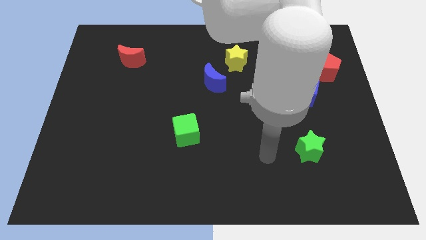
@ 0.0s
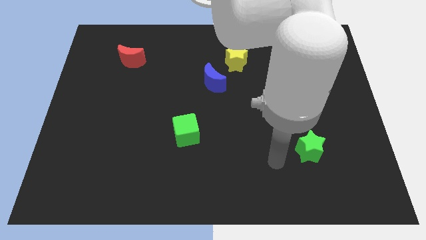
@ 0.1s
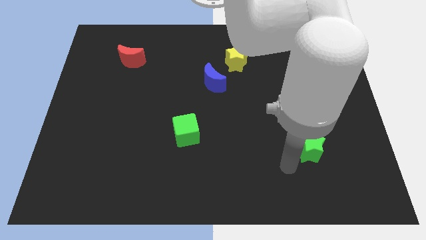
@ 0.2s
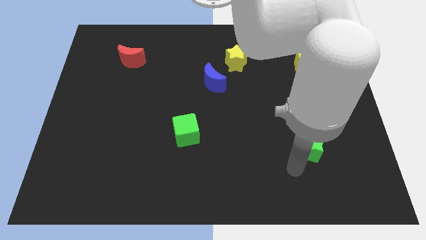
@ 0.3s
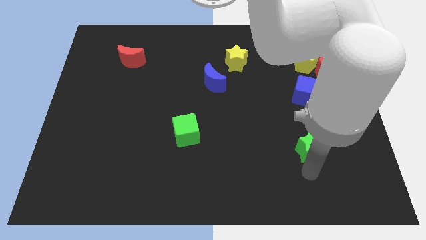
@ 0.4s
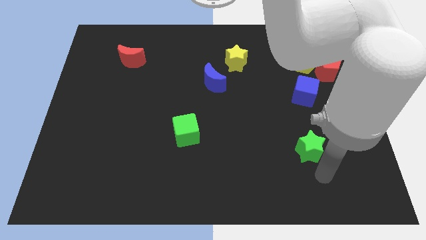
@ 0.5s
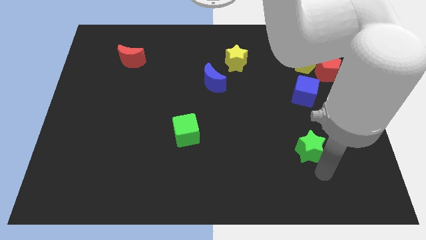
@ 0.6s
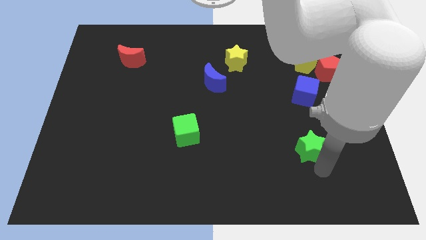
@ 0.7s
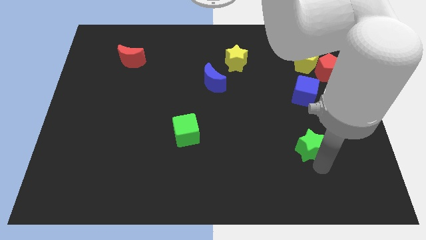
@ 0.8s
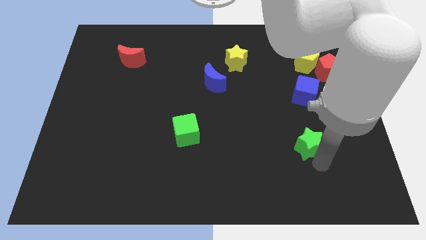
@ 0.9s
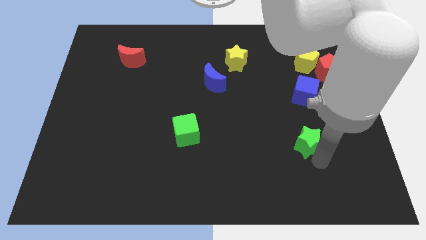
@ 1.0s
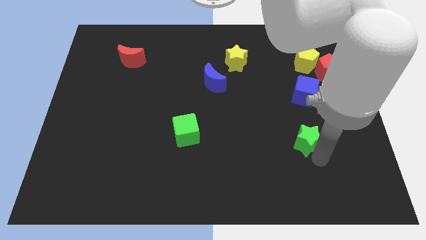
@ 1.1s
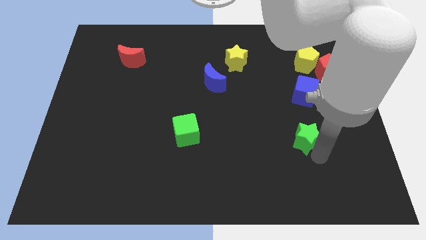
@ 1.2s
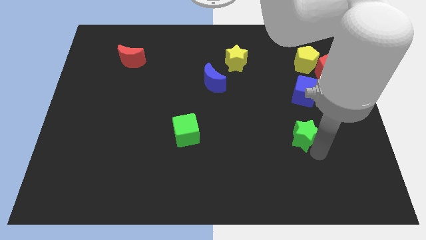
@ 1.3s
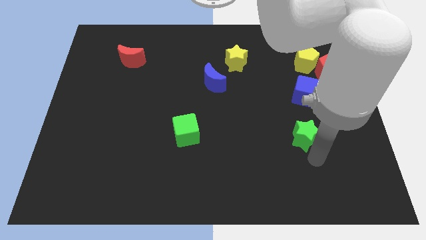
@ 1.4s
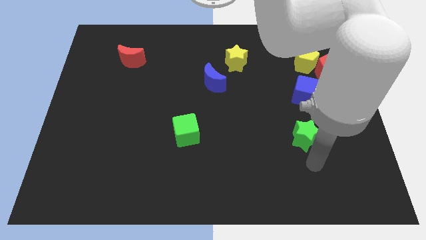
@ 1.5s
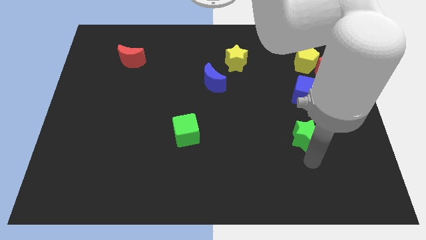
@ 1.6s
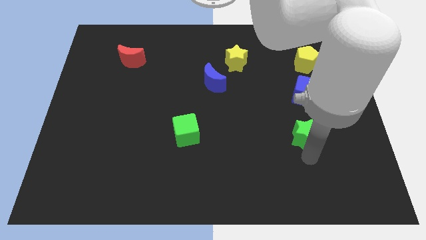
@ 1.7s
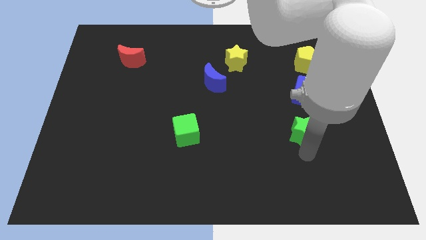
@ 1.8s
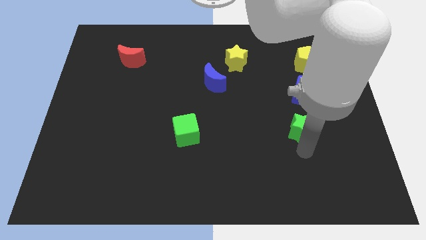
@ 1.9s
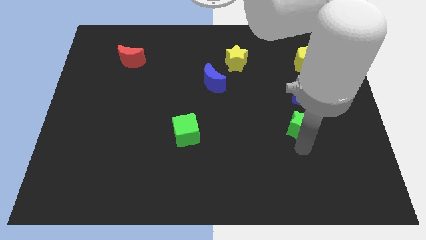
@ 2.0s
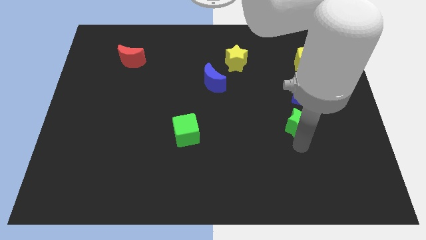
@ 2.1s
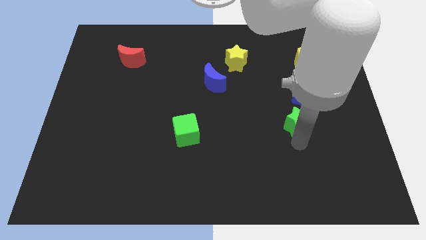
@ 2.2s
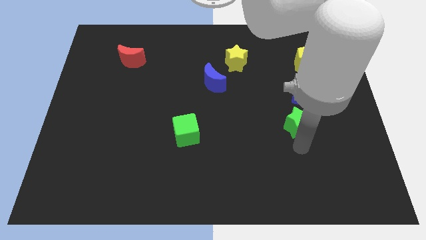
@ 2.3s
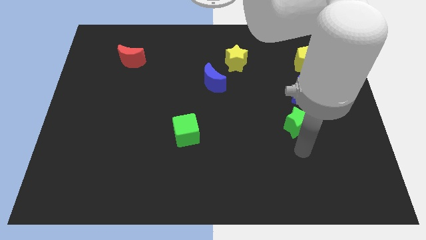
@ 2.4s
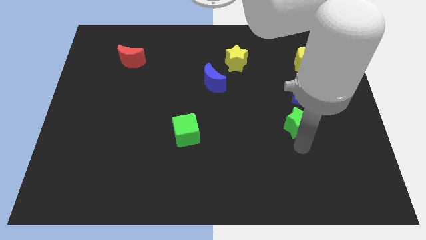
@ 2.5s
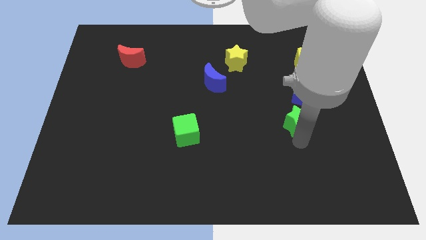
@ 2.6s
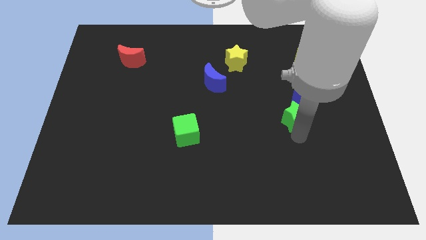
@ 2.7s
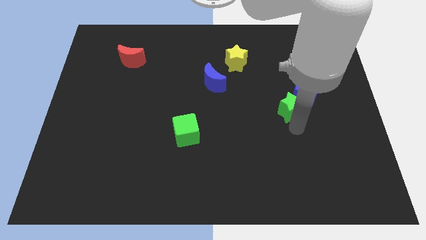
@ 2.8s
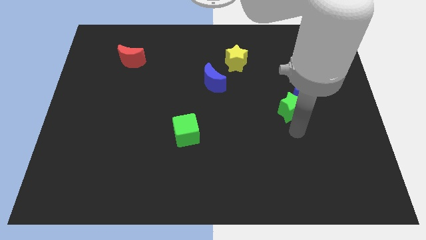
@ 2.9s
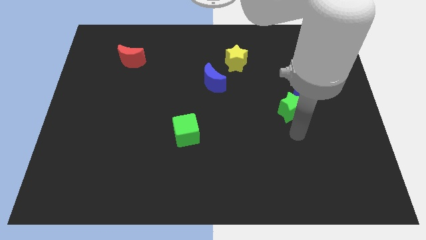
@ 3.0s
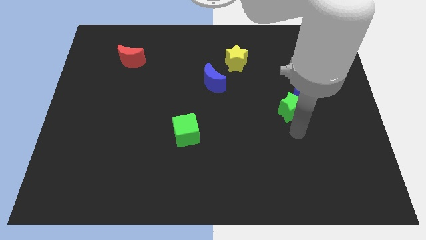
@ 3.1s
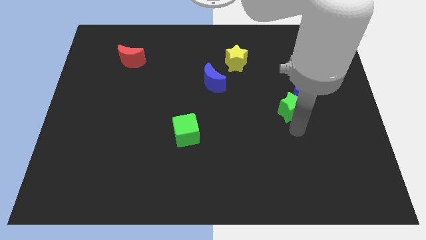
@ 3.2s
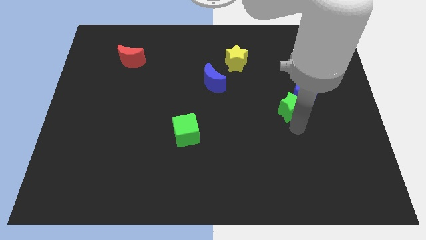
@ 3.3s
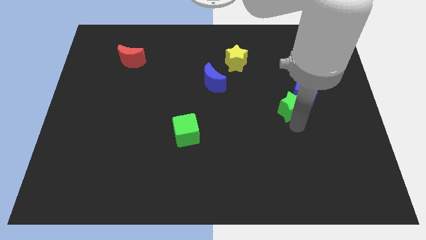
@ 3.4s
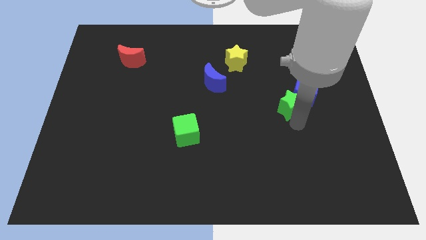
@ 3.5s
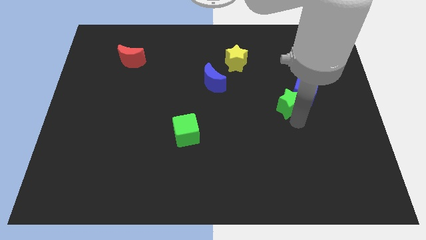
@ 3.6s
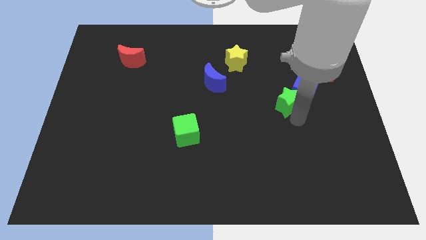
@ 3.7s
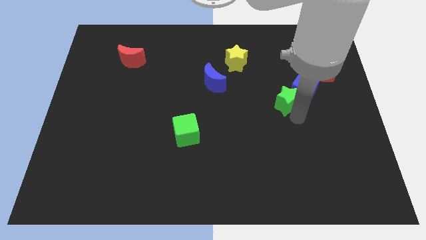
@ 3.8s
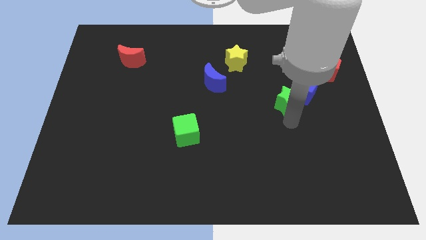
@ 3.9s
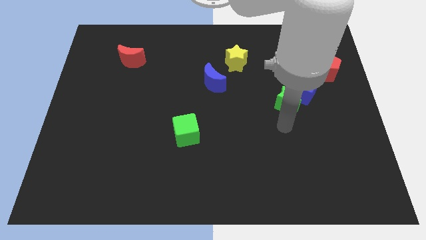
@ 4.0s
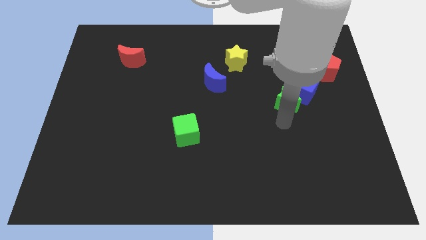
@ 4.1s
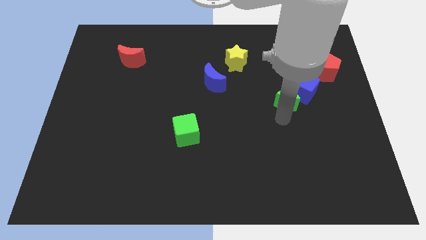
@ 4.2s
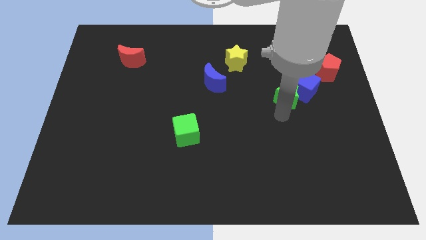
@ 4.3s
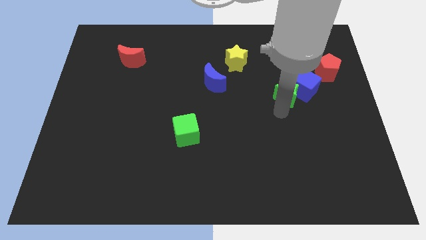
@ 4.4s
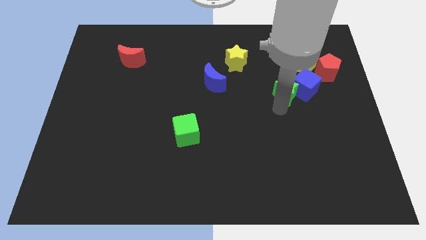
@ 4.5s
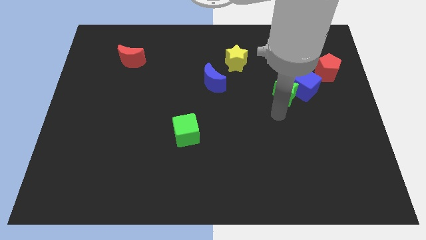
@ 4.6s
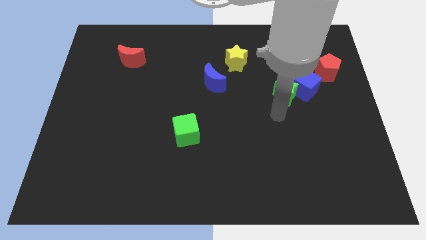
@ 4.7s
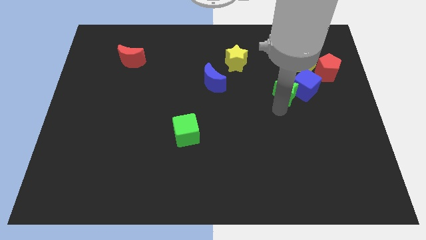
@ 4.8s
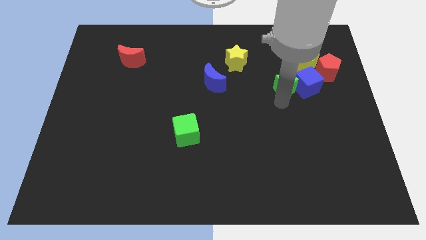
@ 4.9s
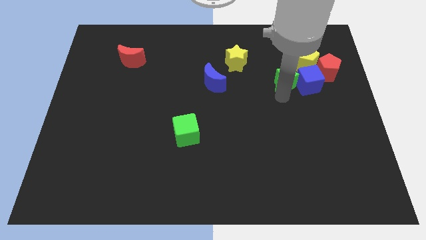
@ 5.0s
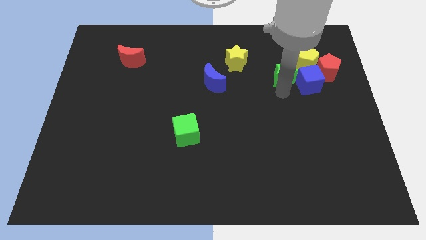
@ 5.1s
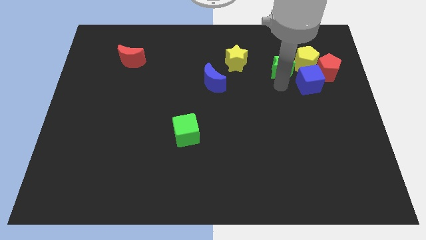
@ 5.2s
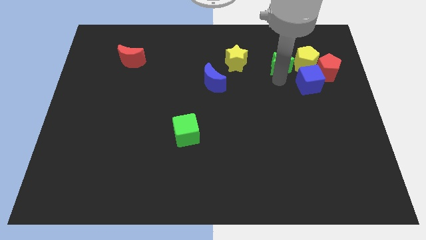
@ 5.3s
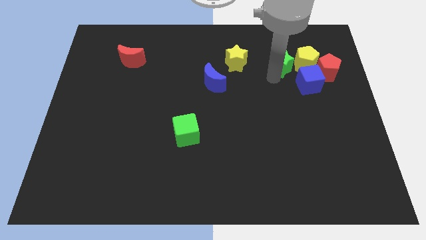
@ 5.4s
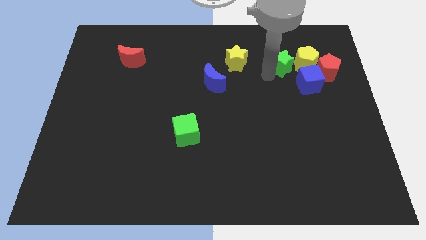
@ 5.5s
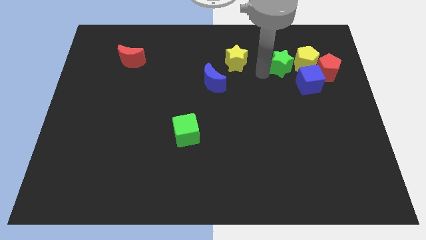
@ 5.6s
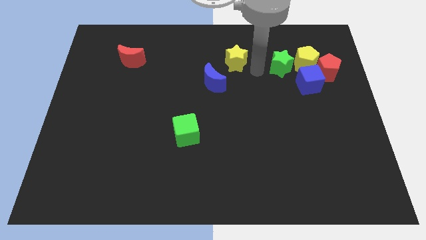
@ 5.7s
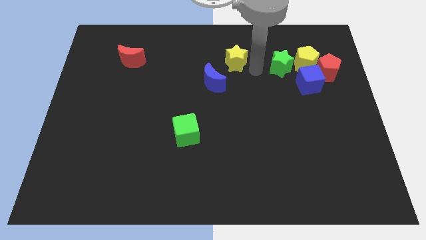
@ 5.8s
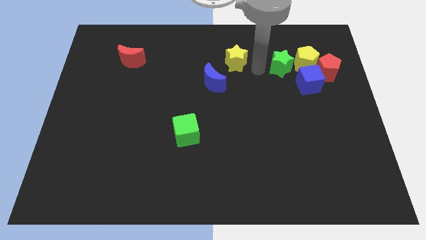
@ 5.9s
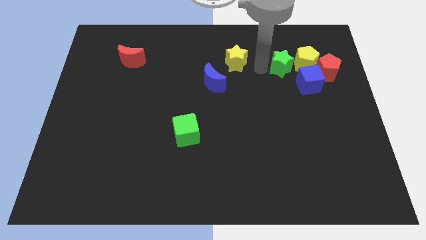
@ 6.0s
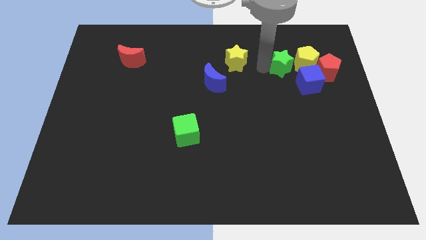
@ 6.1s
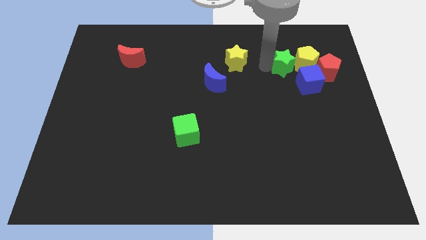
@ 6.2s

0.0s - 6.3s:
push the green star towards the yellow pentagon

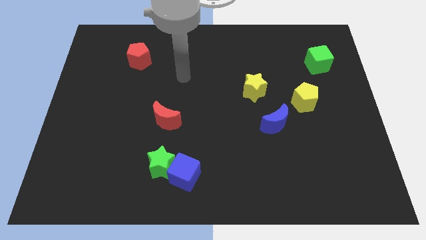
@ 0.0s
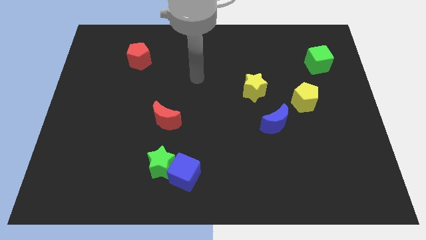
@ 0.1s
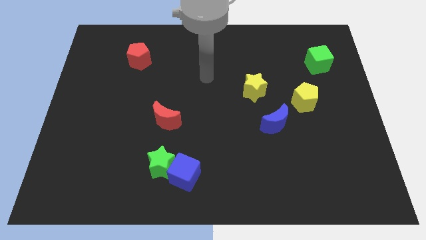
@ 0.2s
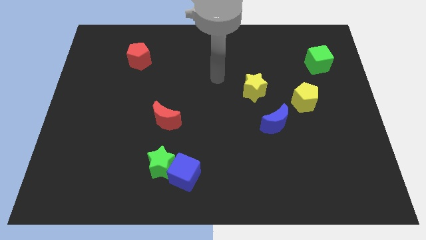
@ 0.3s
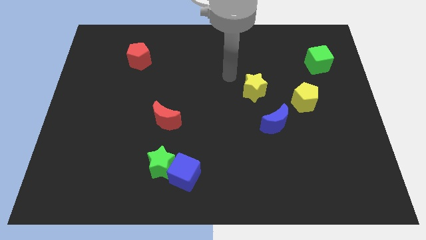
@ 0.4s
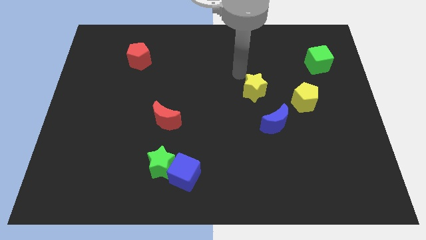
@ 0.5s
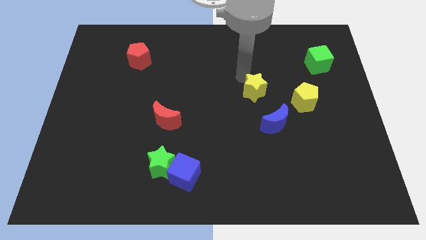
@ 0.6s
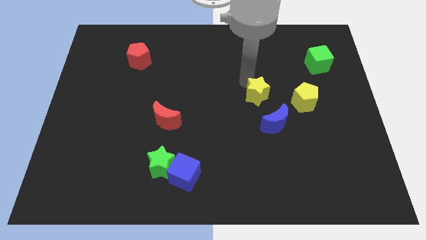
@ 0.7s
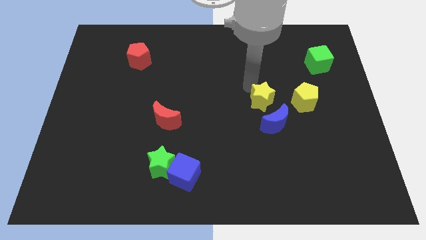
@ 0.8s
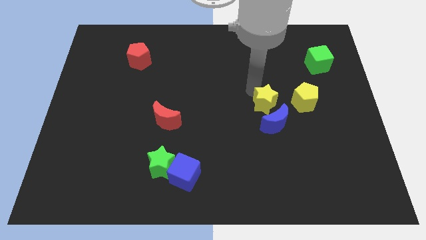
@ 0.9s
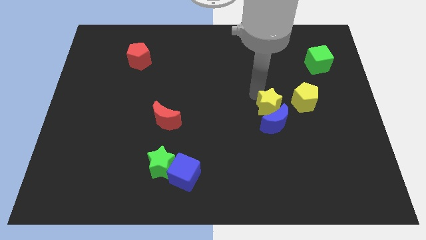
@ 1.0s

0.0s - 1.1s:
put the yellow star to the blue moon

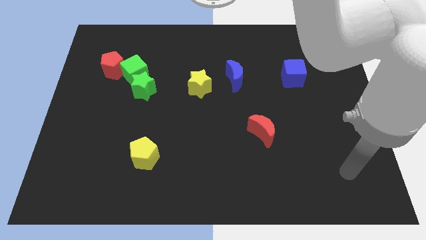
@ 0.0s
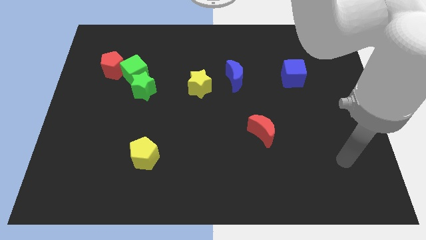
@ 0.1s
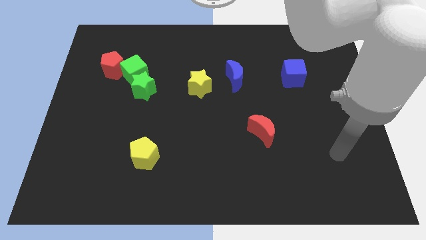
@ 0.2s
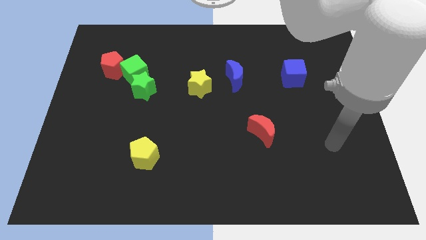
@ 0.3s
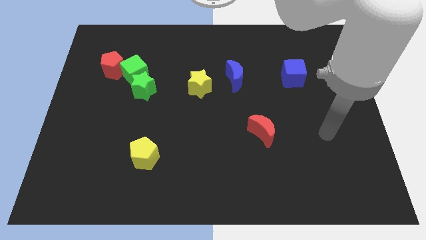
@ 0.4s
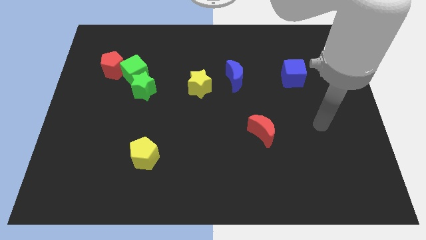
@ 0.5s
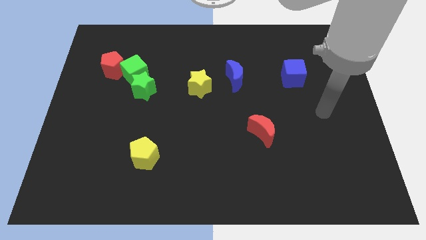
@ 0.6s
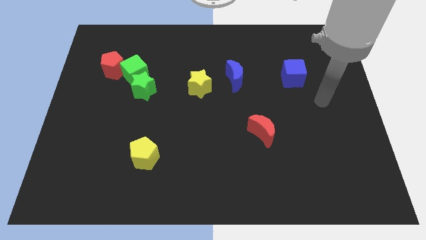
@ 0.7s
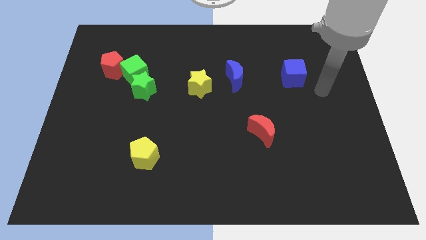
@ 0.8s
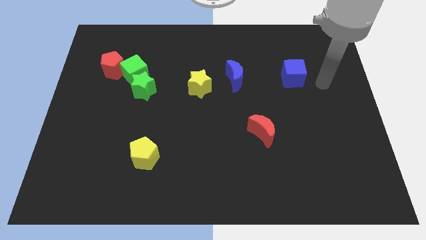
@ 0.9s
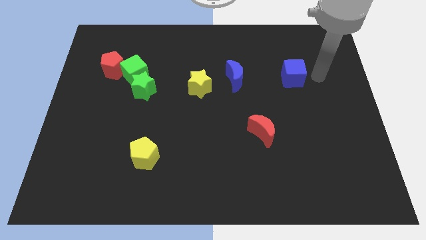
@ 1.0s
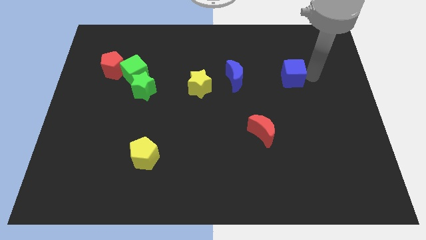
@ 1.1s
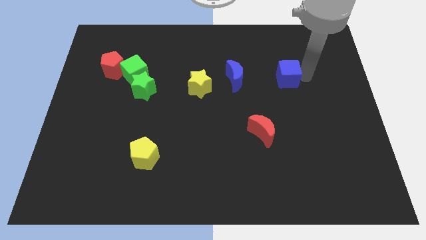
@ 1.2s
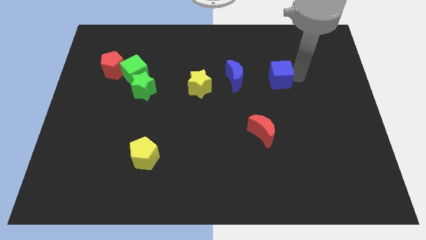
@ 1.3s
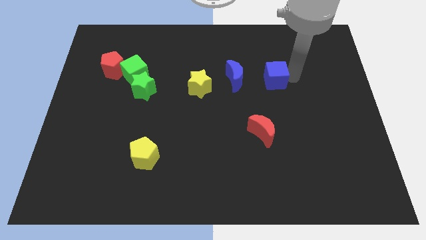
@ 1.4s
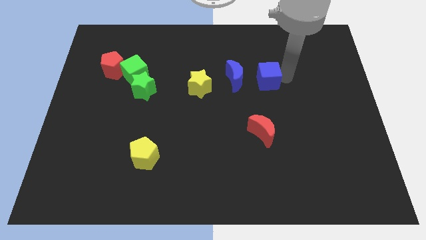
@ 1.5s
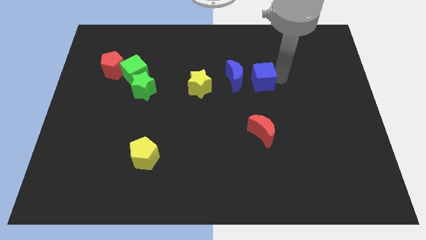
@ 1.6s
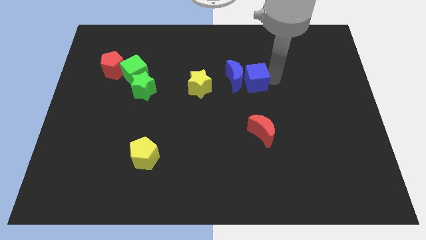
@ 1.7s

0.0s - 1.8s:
put the blue cube towards the blue moon
